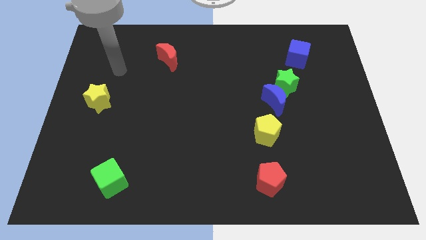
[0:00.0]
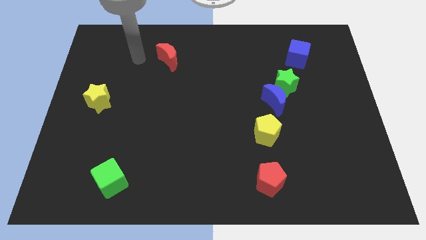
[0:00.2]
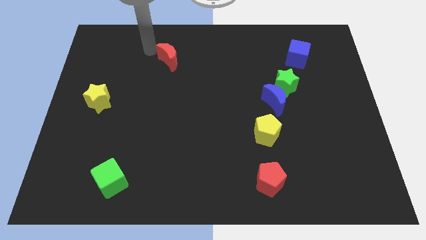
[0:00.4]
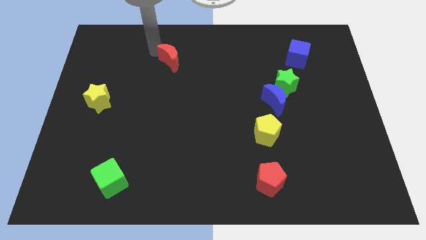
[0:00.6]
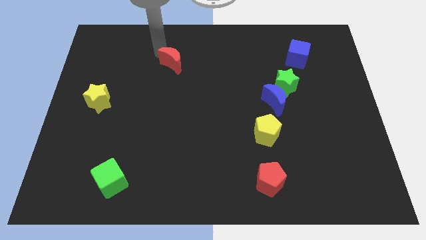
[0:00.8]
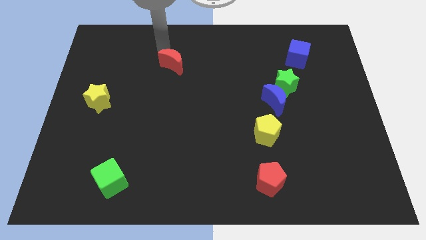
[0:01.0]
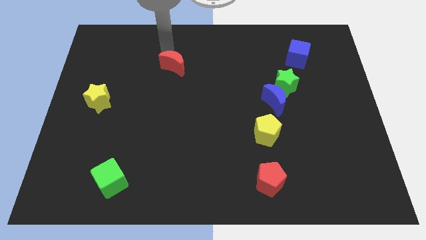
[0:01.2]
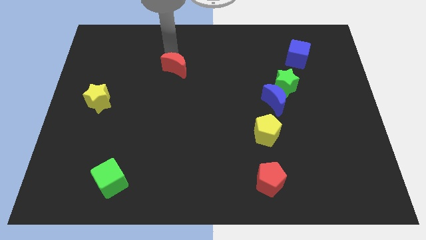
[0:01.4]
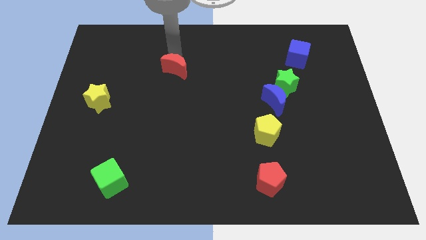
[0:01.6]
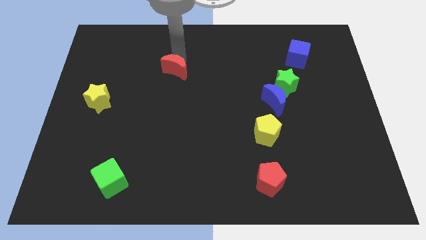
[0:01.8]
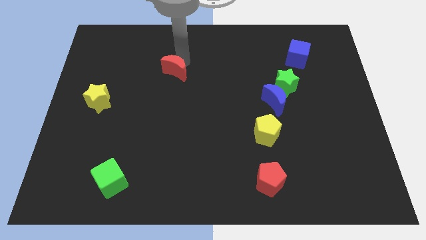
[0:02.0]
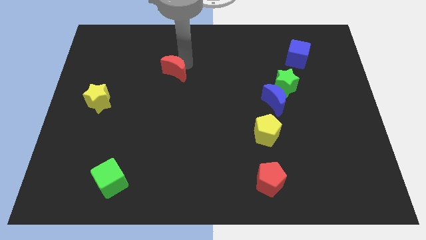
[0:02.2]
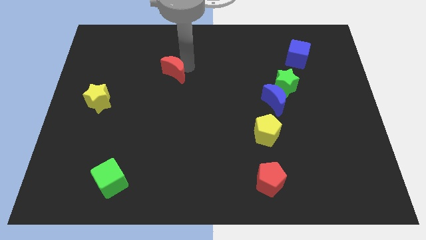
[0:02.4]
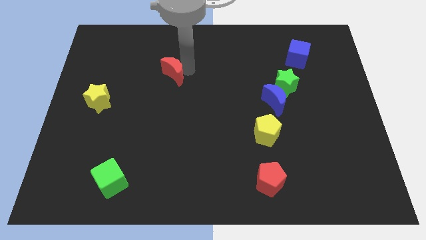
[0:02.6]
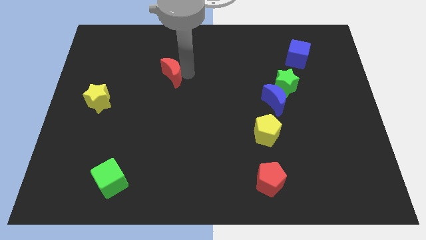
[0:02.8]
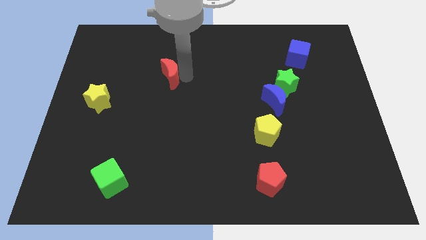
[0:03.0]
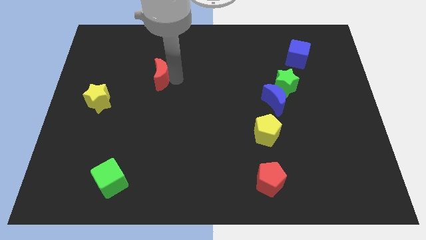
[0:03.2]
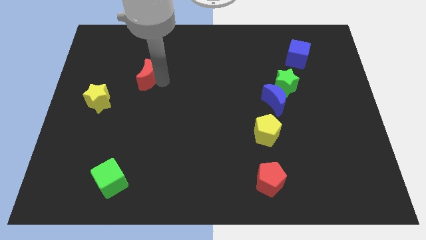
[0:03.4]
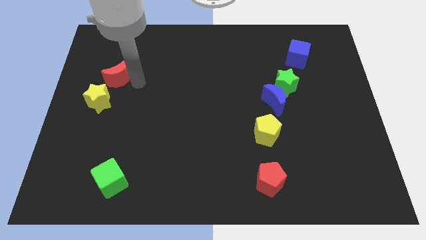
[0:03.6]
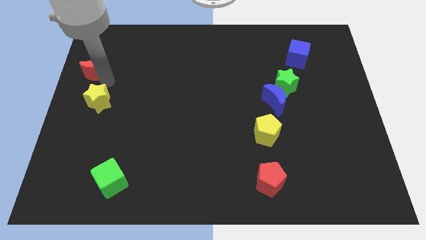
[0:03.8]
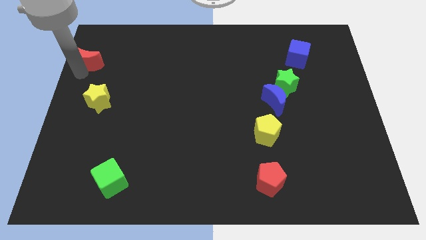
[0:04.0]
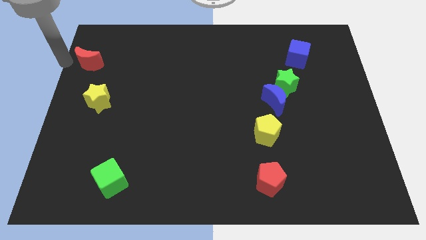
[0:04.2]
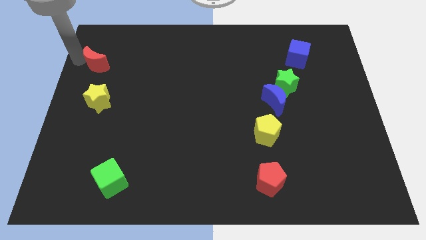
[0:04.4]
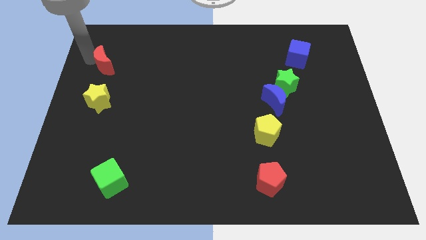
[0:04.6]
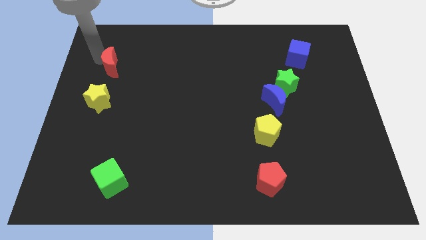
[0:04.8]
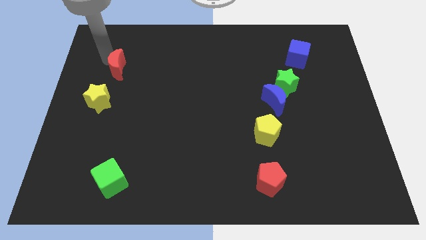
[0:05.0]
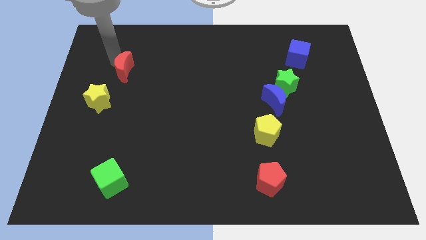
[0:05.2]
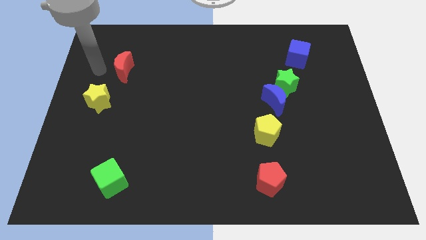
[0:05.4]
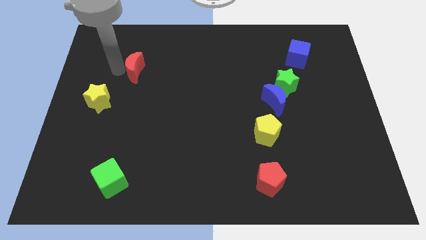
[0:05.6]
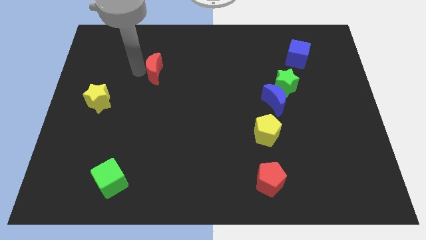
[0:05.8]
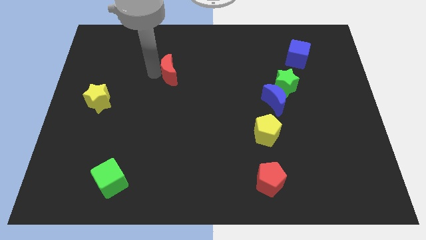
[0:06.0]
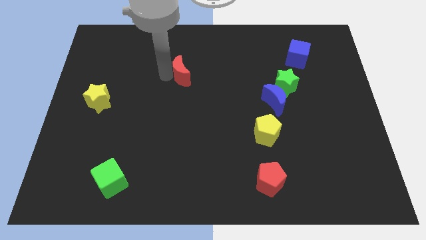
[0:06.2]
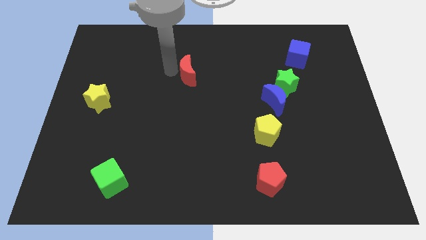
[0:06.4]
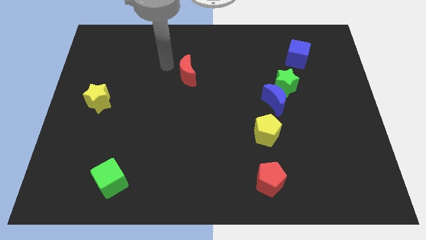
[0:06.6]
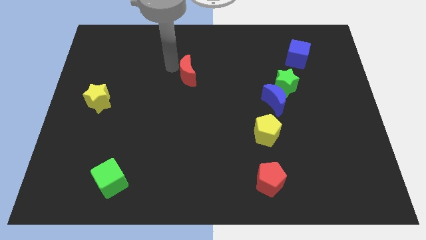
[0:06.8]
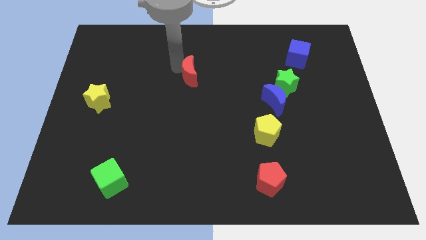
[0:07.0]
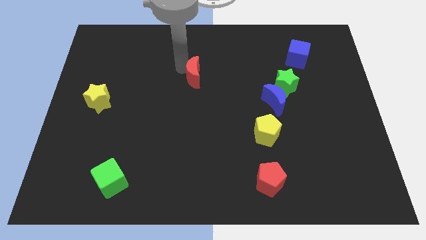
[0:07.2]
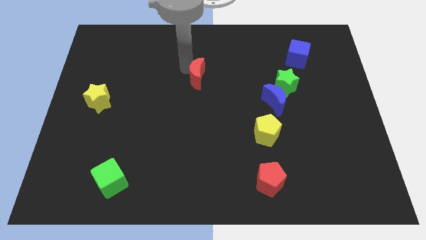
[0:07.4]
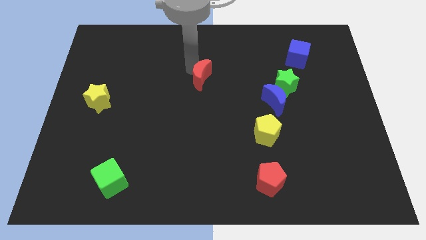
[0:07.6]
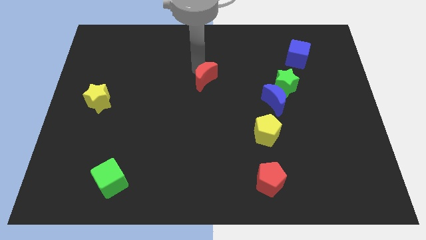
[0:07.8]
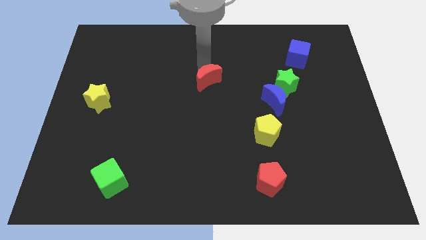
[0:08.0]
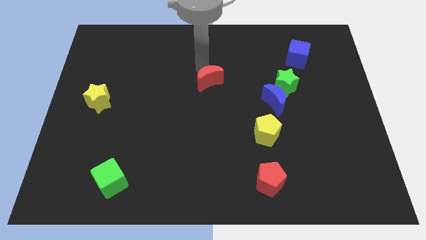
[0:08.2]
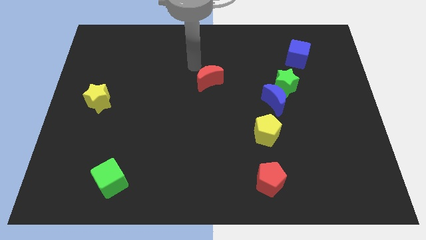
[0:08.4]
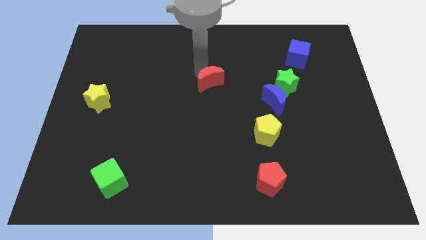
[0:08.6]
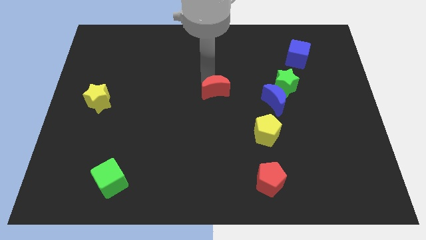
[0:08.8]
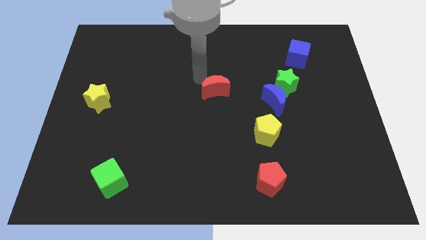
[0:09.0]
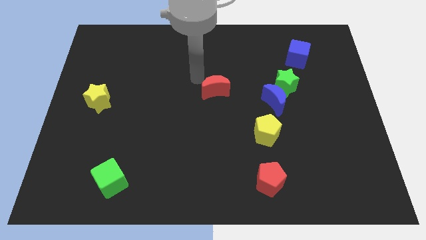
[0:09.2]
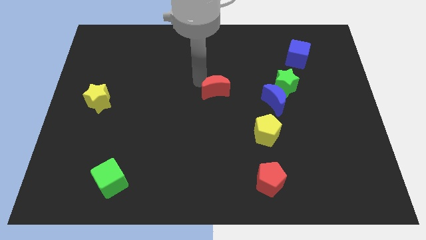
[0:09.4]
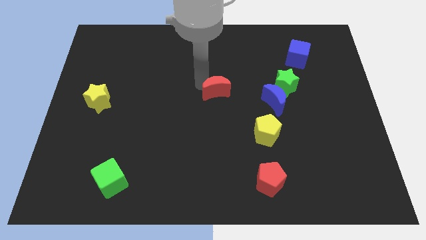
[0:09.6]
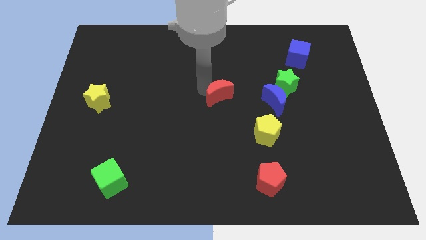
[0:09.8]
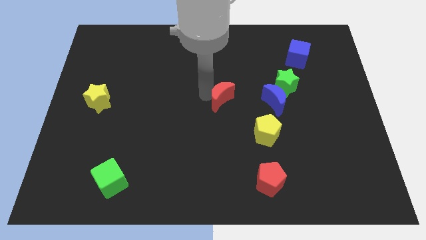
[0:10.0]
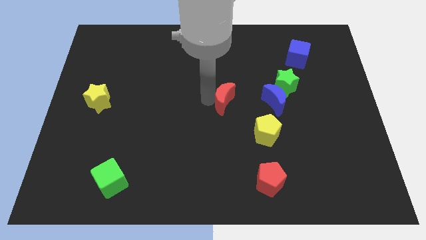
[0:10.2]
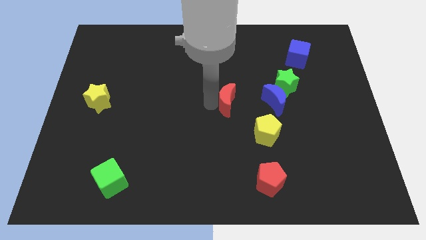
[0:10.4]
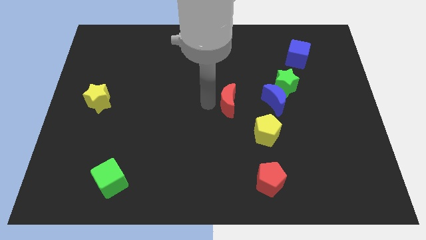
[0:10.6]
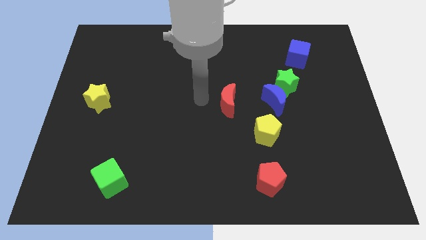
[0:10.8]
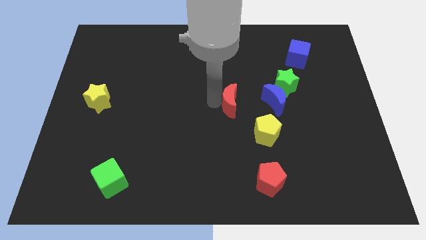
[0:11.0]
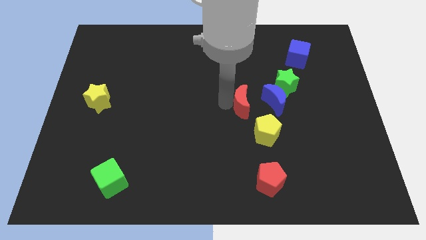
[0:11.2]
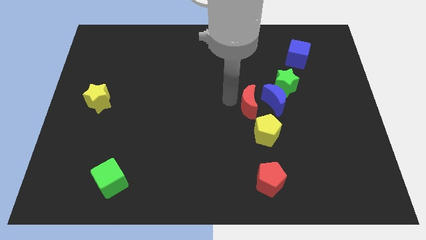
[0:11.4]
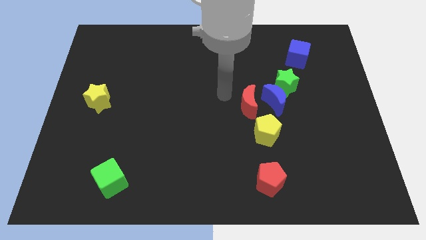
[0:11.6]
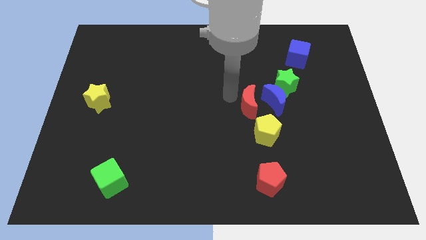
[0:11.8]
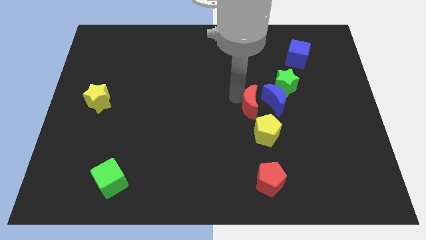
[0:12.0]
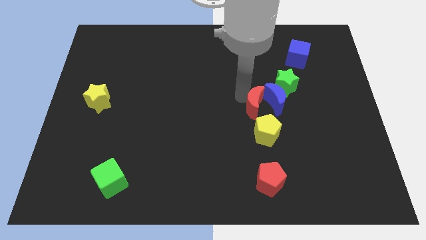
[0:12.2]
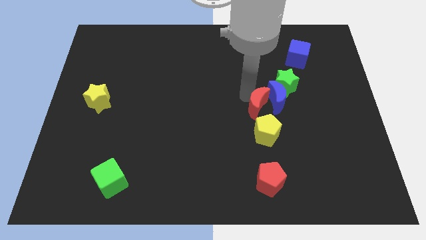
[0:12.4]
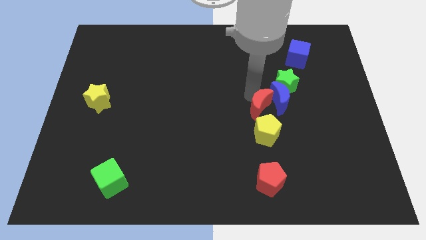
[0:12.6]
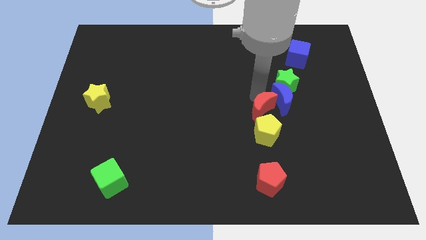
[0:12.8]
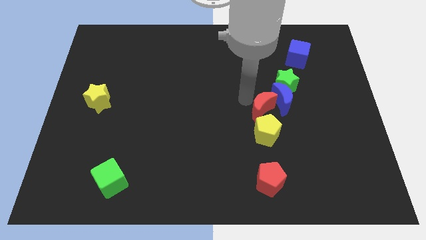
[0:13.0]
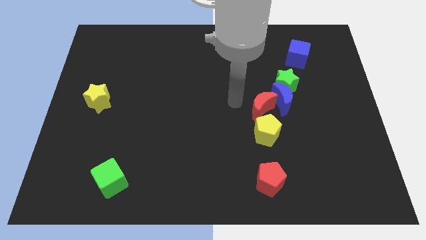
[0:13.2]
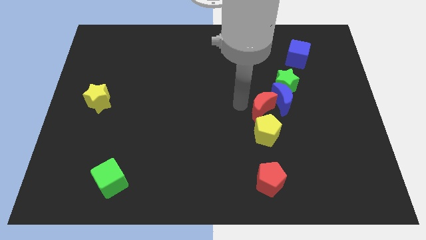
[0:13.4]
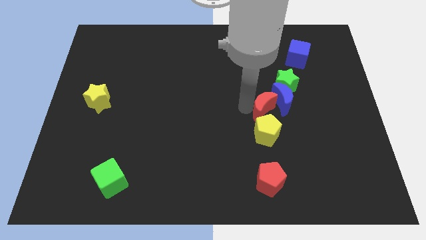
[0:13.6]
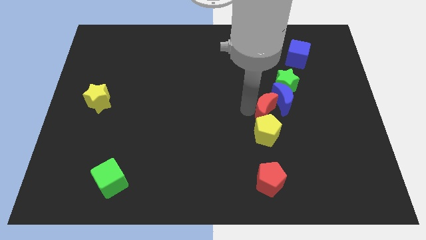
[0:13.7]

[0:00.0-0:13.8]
push the red moon to the top right of the yellow pentagon

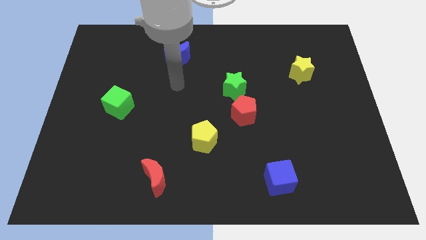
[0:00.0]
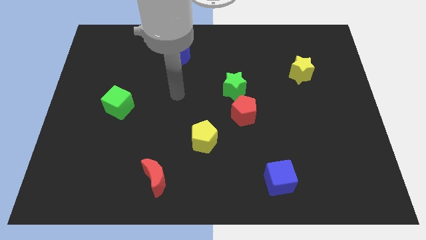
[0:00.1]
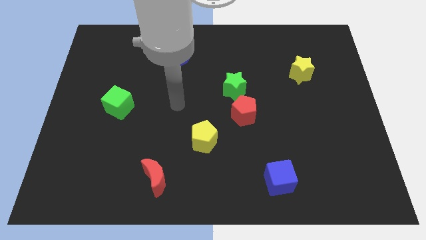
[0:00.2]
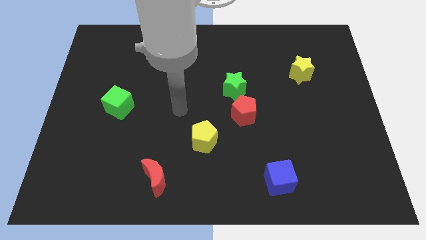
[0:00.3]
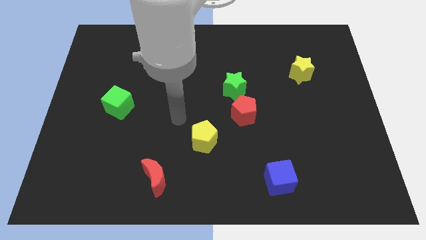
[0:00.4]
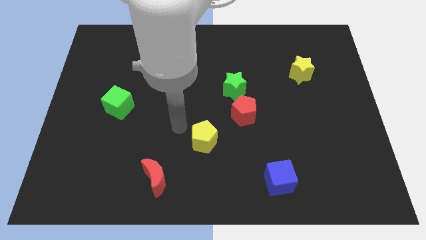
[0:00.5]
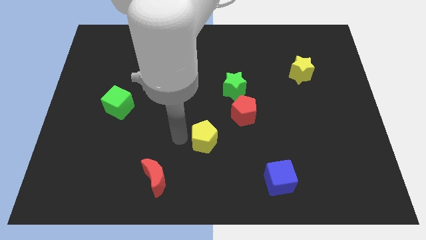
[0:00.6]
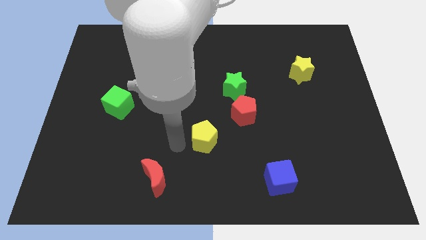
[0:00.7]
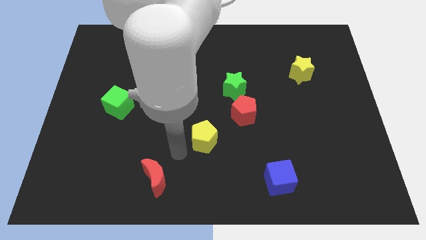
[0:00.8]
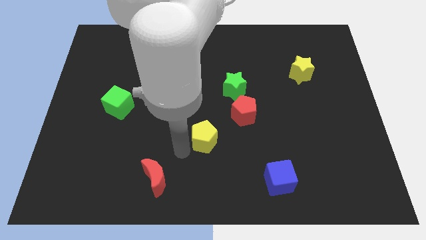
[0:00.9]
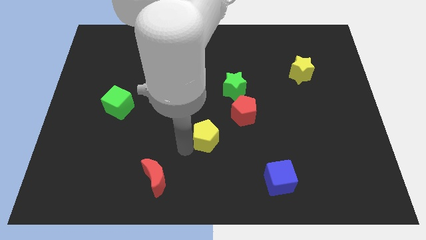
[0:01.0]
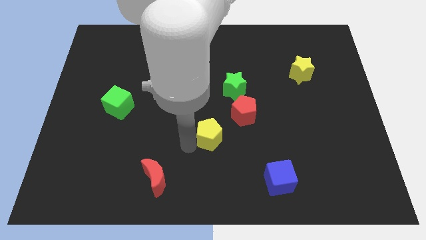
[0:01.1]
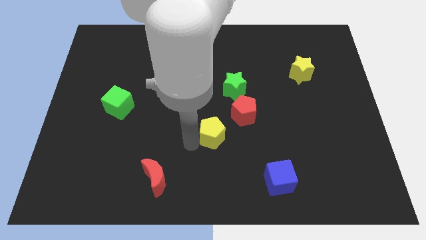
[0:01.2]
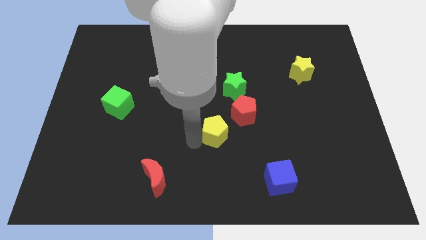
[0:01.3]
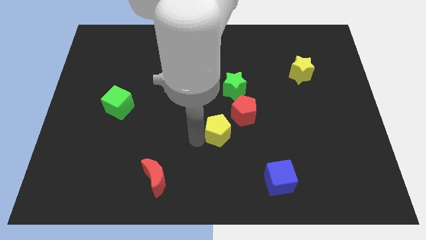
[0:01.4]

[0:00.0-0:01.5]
push the yellow pentagon to the bottom of the green star
